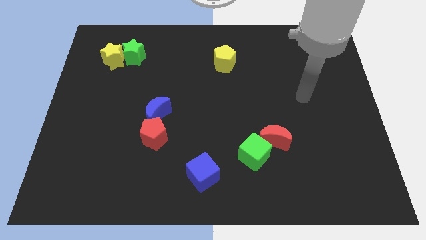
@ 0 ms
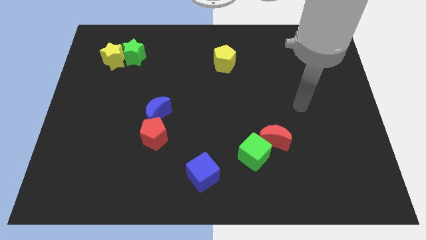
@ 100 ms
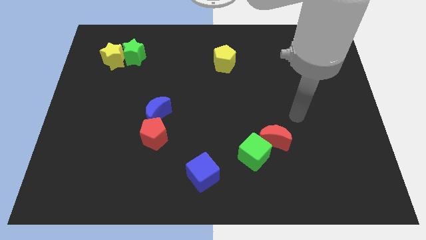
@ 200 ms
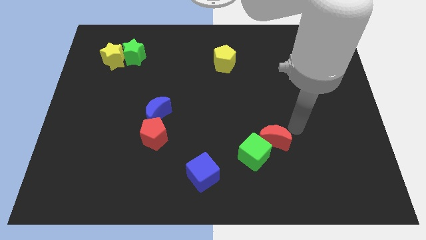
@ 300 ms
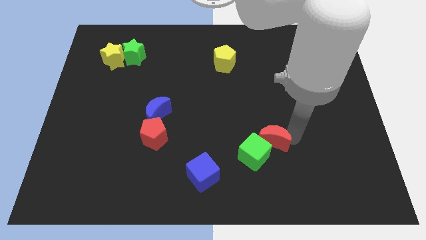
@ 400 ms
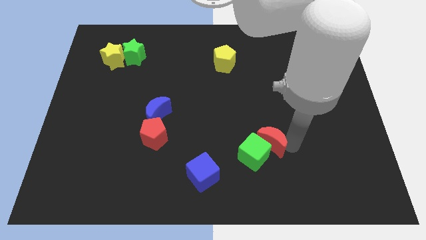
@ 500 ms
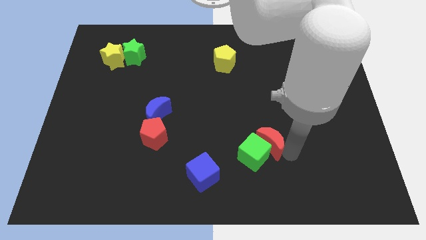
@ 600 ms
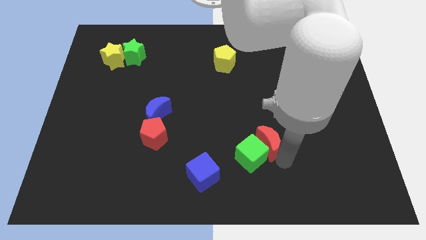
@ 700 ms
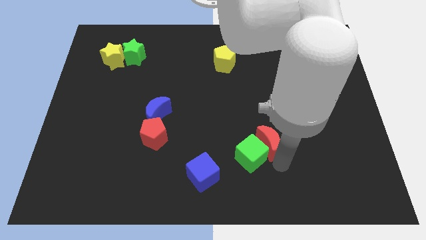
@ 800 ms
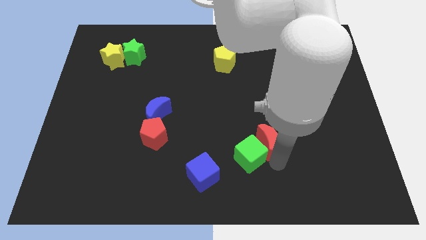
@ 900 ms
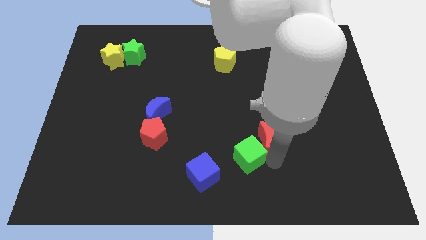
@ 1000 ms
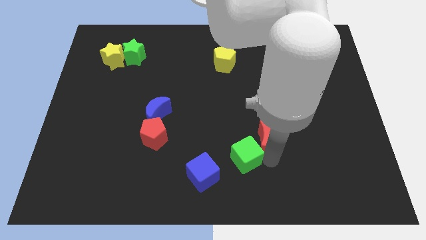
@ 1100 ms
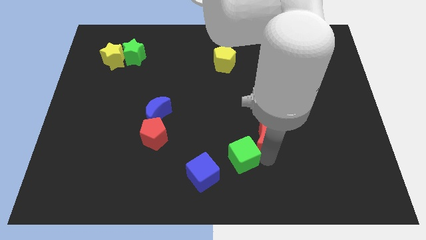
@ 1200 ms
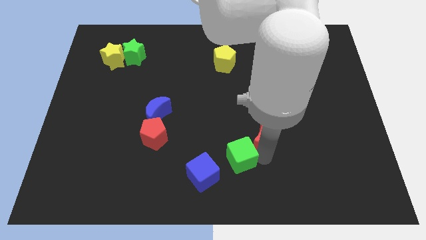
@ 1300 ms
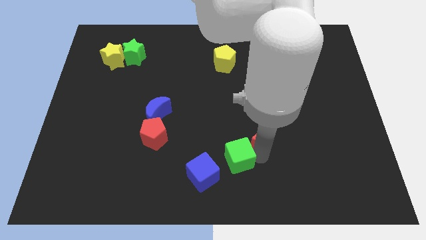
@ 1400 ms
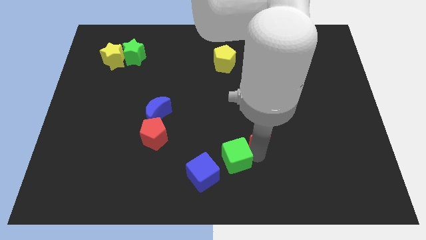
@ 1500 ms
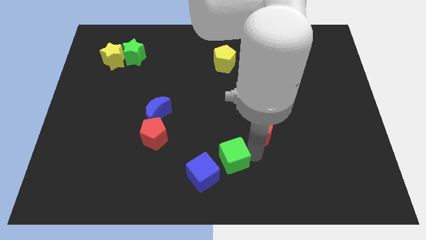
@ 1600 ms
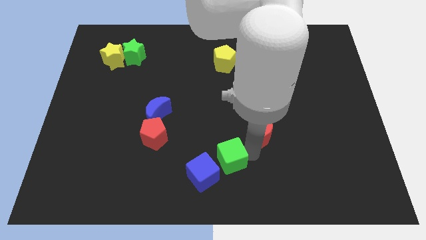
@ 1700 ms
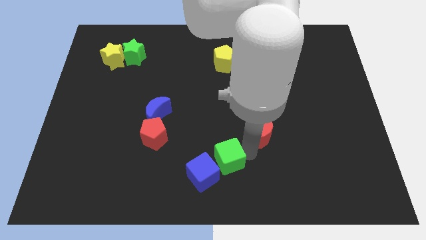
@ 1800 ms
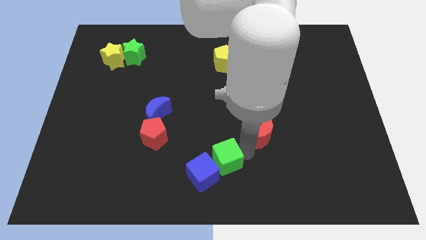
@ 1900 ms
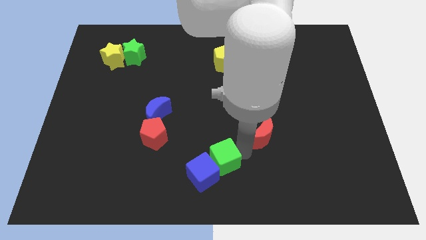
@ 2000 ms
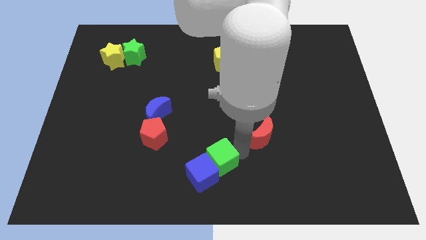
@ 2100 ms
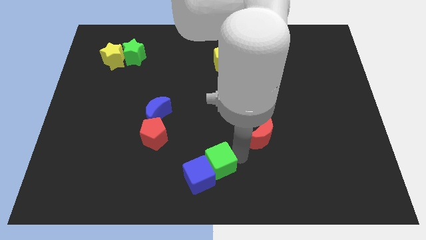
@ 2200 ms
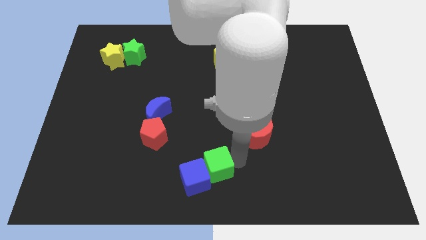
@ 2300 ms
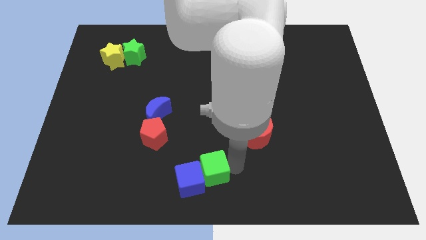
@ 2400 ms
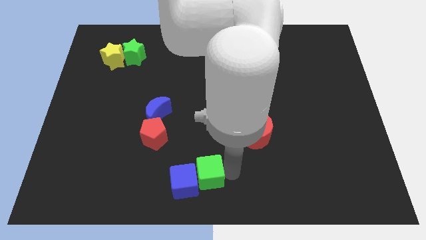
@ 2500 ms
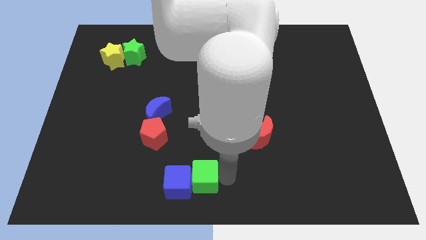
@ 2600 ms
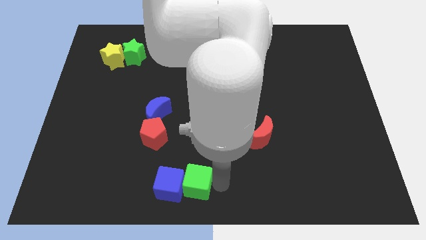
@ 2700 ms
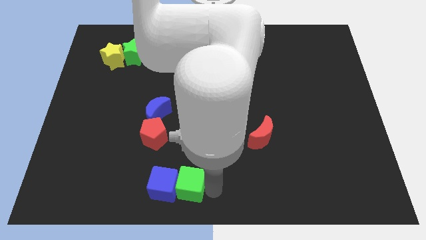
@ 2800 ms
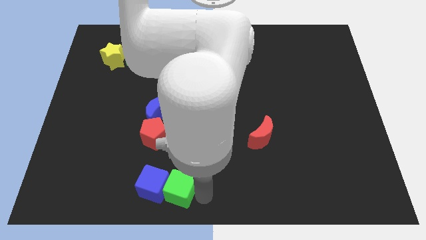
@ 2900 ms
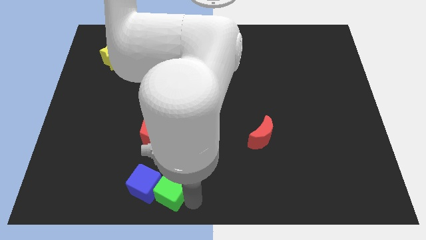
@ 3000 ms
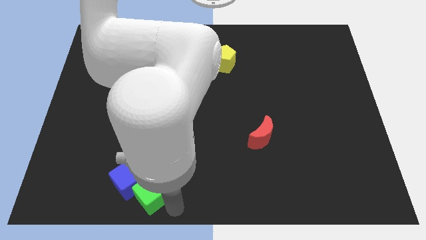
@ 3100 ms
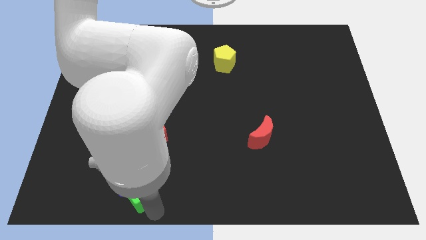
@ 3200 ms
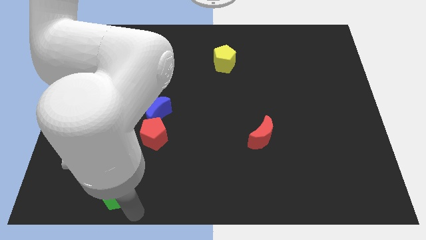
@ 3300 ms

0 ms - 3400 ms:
move the green cube to the left

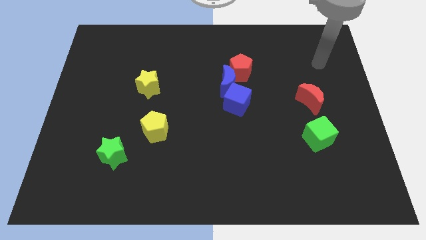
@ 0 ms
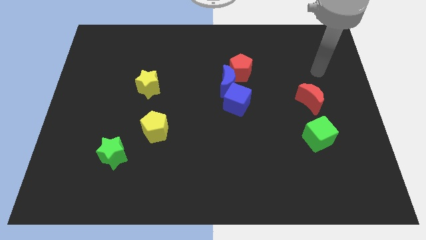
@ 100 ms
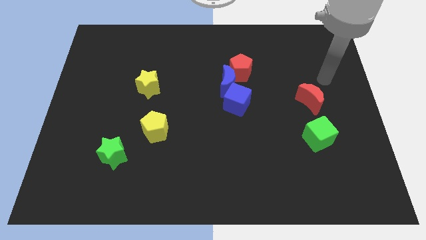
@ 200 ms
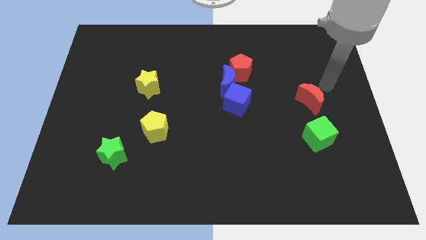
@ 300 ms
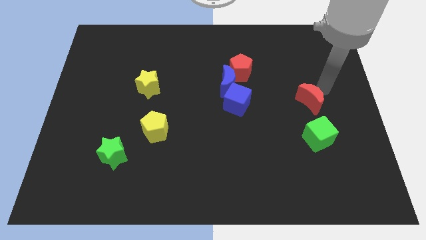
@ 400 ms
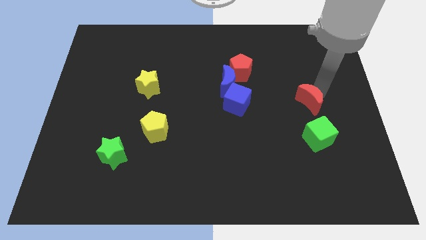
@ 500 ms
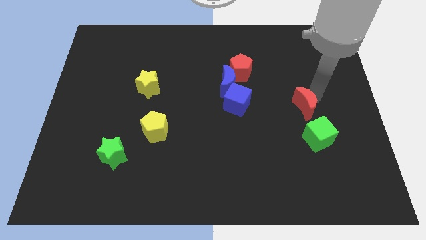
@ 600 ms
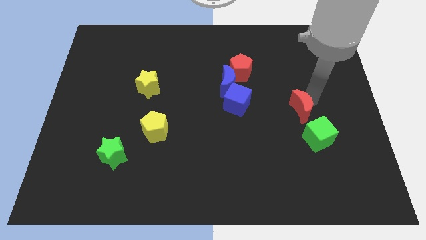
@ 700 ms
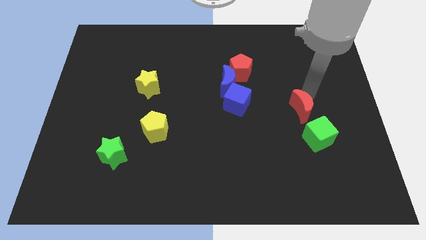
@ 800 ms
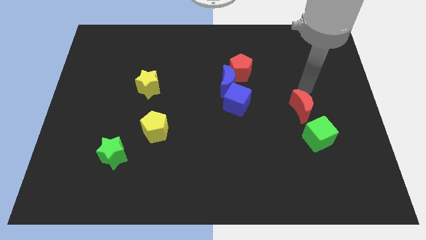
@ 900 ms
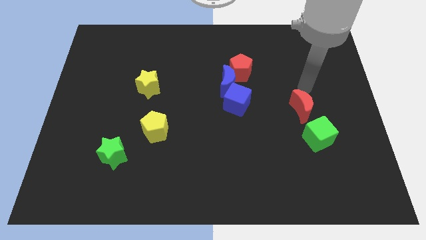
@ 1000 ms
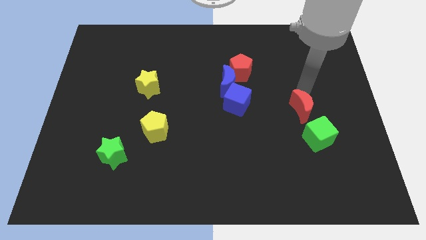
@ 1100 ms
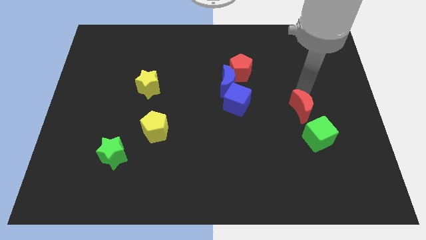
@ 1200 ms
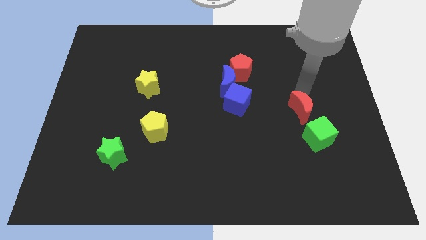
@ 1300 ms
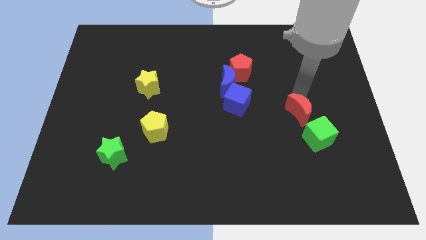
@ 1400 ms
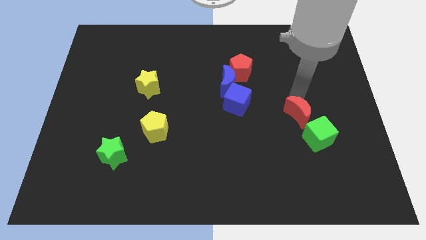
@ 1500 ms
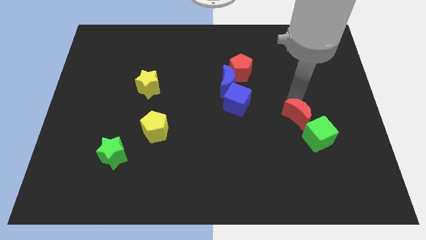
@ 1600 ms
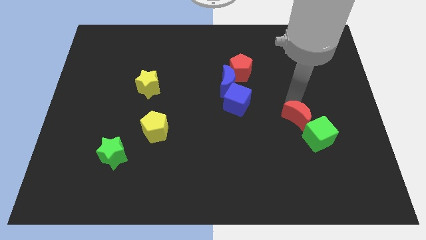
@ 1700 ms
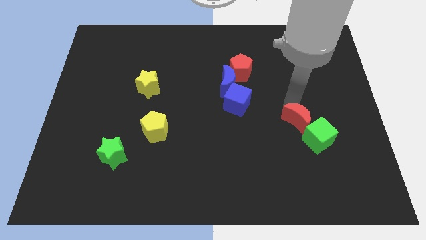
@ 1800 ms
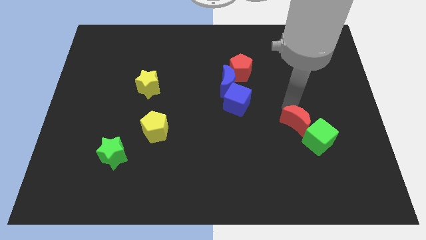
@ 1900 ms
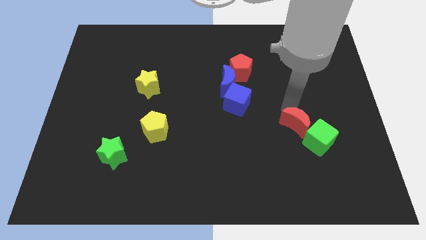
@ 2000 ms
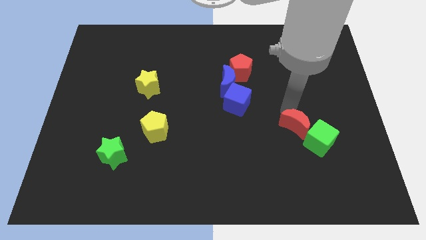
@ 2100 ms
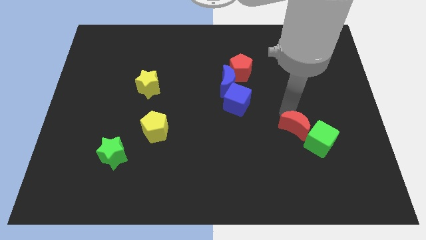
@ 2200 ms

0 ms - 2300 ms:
move the red moon somewhat downwards

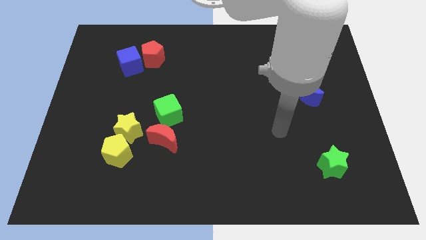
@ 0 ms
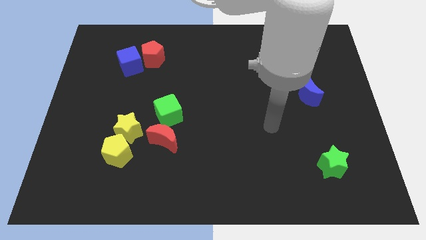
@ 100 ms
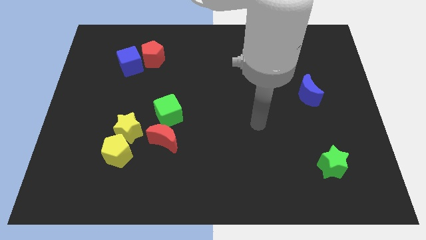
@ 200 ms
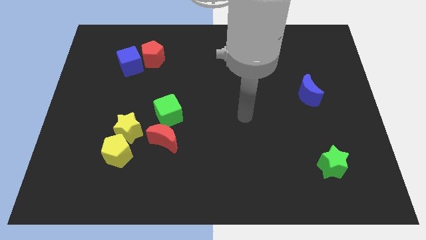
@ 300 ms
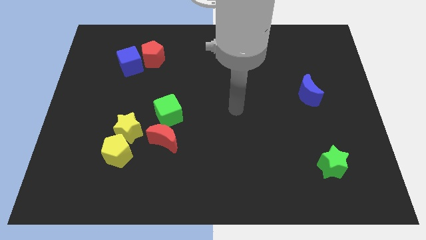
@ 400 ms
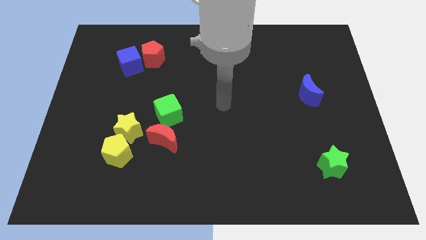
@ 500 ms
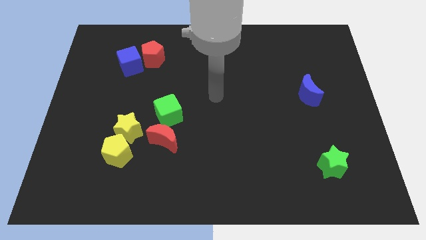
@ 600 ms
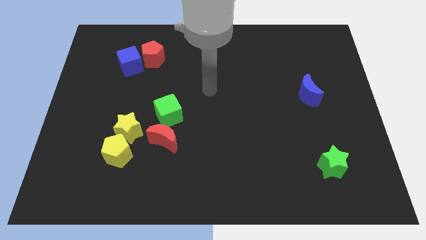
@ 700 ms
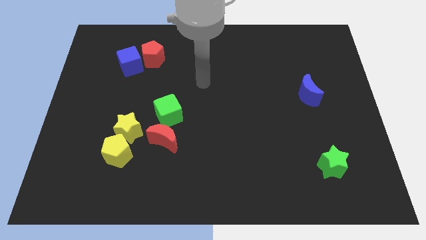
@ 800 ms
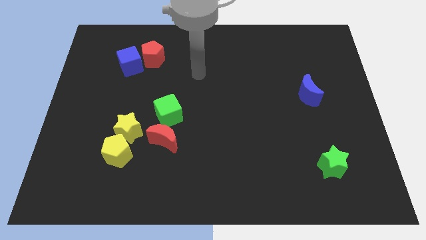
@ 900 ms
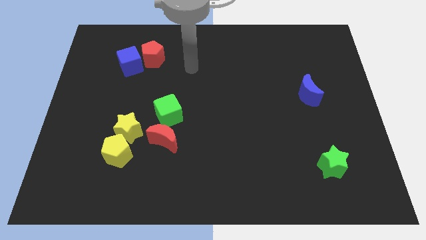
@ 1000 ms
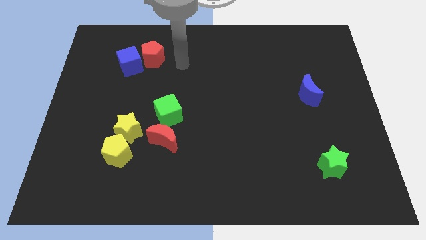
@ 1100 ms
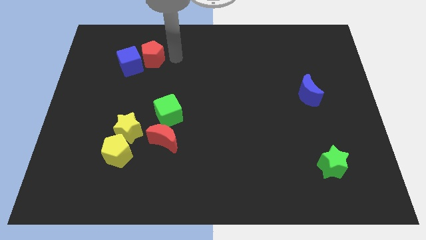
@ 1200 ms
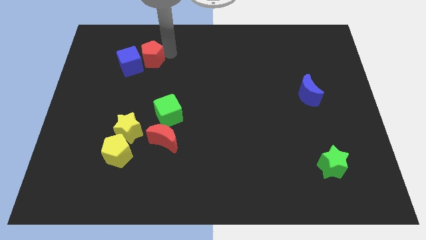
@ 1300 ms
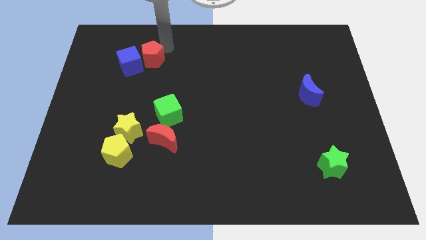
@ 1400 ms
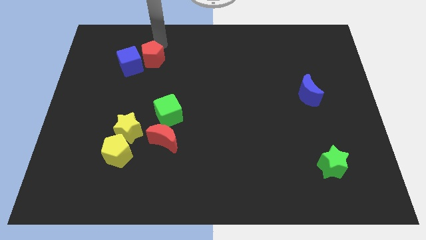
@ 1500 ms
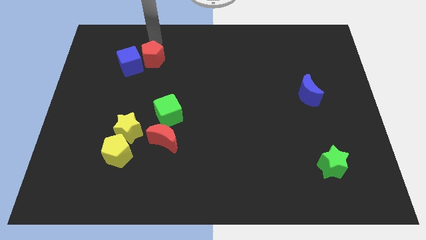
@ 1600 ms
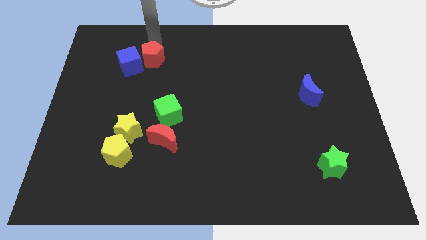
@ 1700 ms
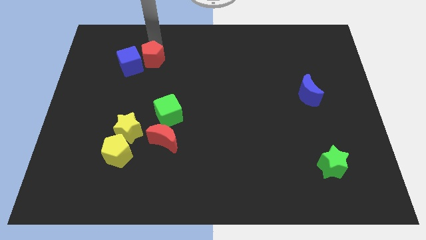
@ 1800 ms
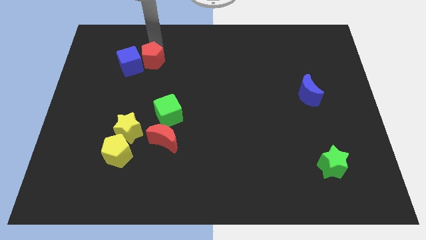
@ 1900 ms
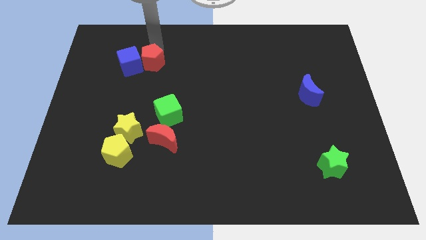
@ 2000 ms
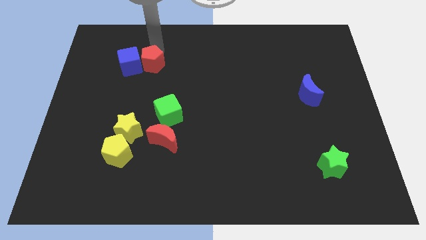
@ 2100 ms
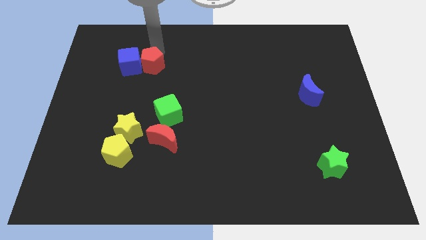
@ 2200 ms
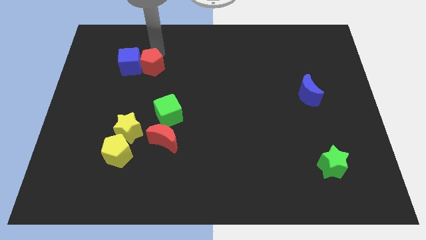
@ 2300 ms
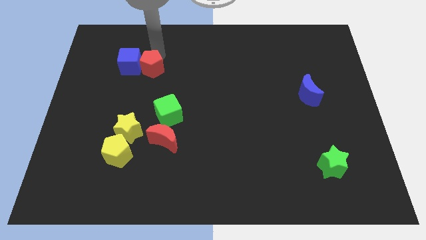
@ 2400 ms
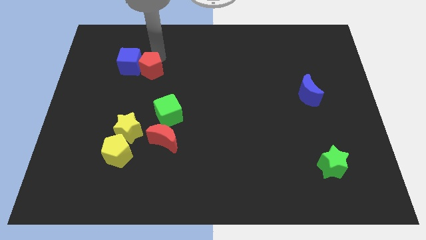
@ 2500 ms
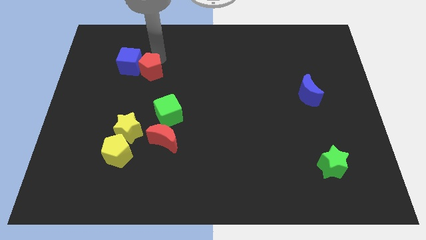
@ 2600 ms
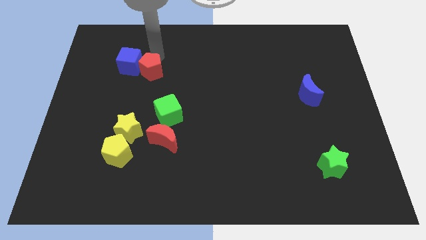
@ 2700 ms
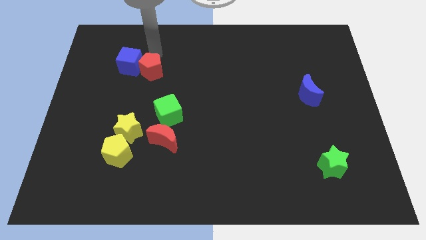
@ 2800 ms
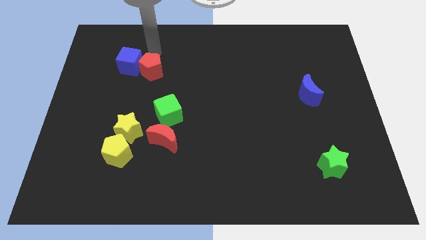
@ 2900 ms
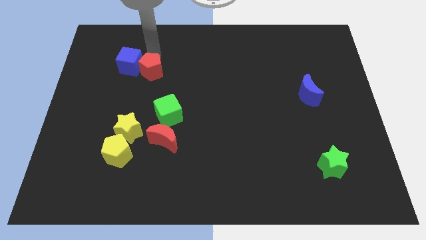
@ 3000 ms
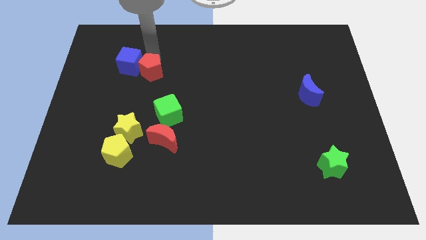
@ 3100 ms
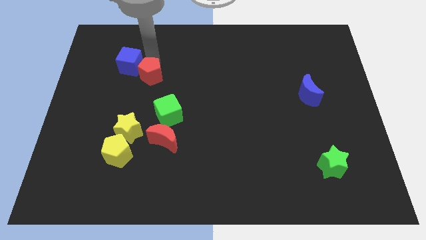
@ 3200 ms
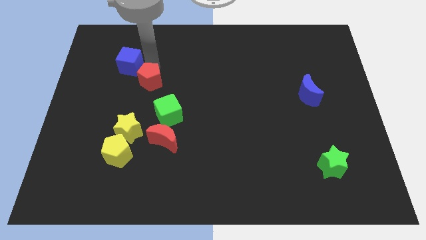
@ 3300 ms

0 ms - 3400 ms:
push the red pentagon down a bit
